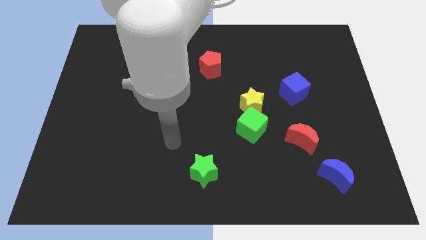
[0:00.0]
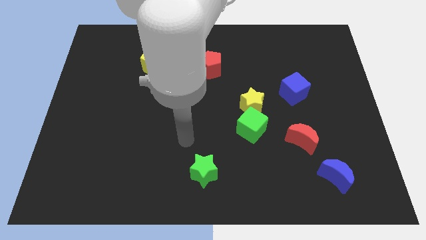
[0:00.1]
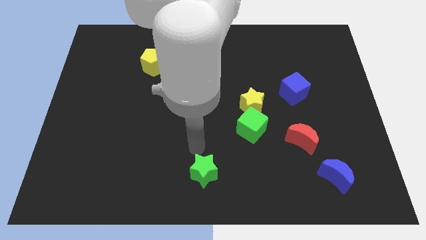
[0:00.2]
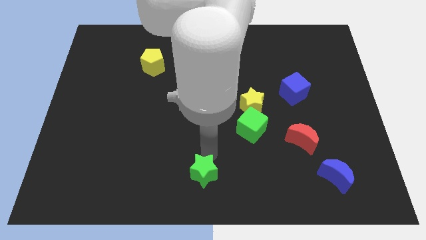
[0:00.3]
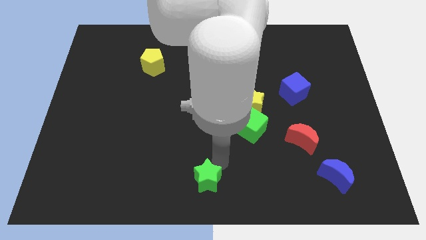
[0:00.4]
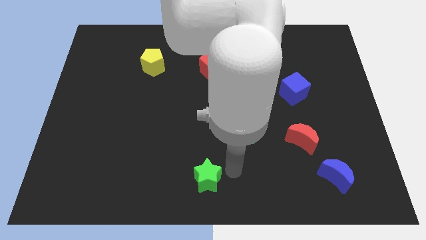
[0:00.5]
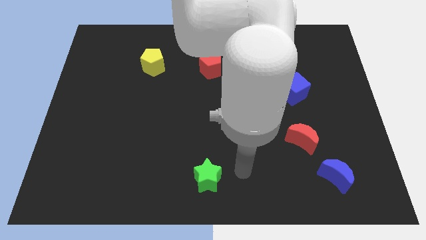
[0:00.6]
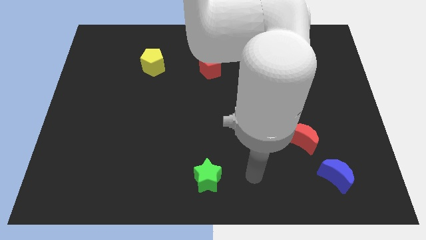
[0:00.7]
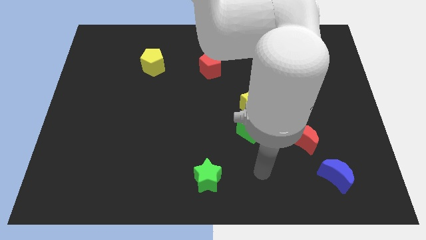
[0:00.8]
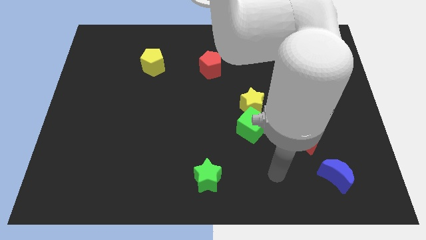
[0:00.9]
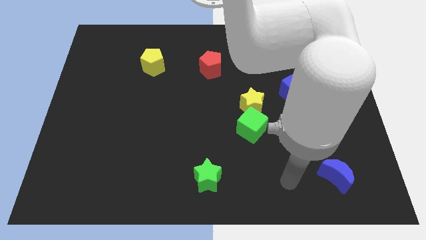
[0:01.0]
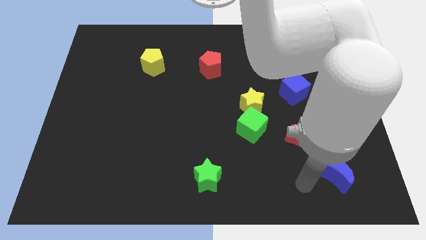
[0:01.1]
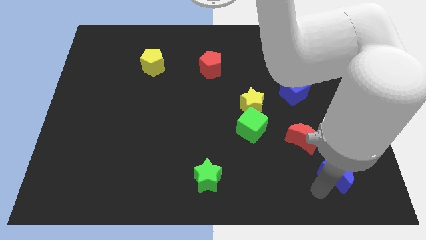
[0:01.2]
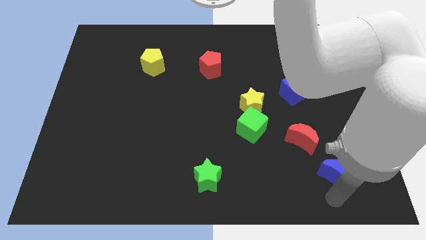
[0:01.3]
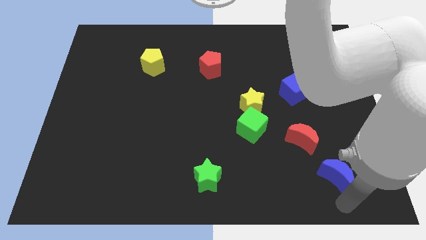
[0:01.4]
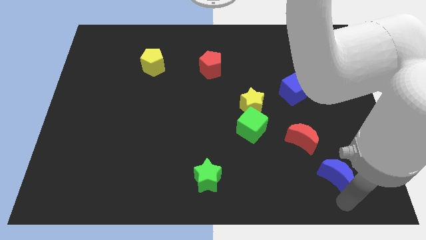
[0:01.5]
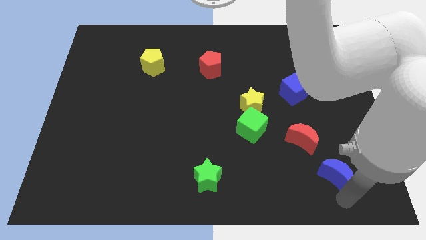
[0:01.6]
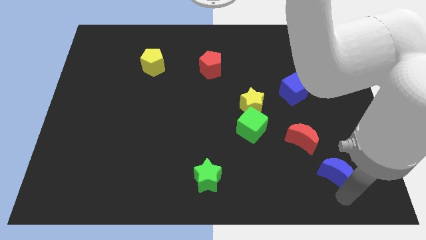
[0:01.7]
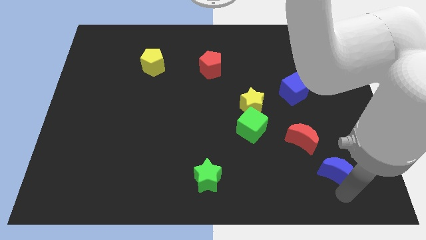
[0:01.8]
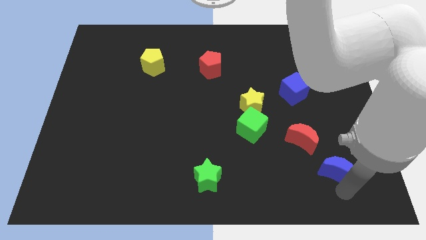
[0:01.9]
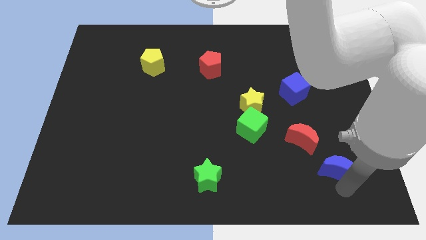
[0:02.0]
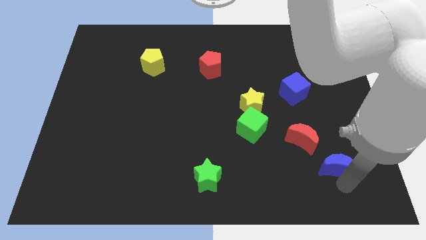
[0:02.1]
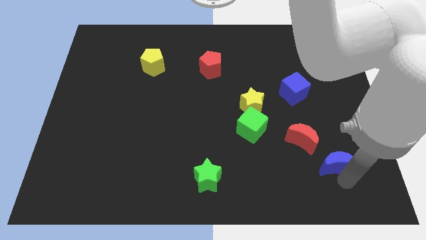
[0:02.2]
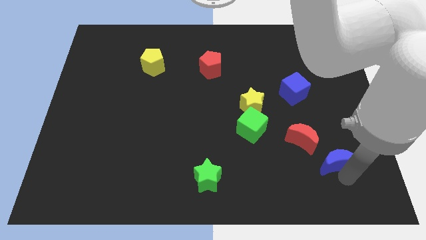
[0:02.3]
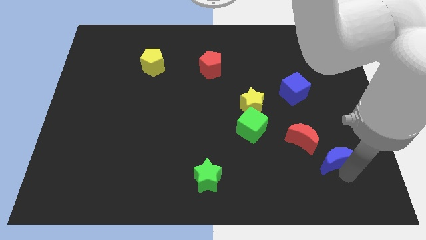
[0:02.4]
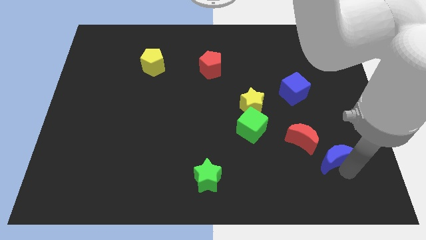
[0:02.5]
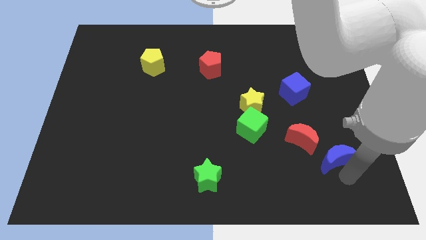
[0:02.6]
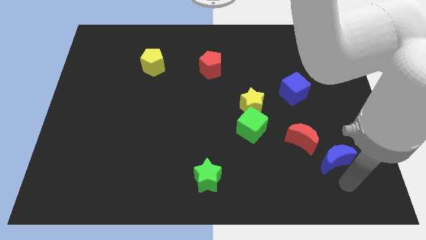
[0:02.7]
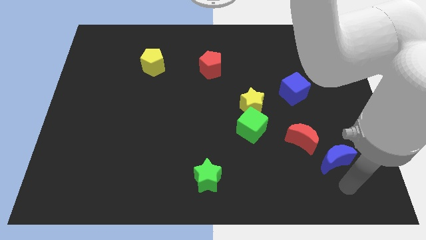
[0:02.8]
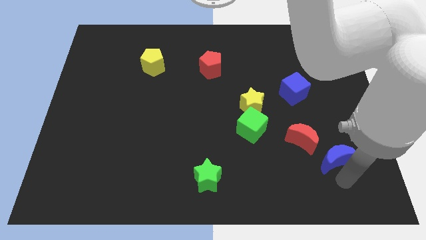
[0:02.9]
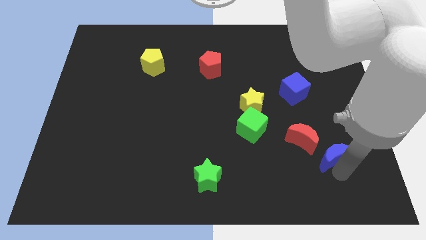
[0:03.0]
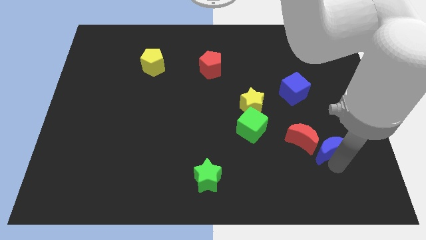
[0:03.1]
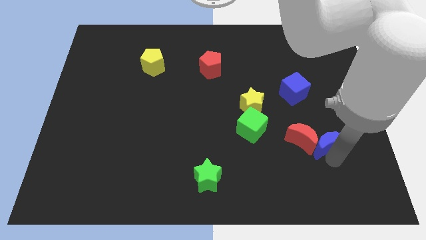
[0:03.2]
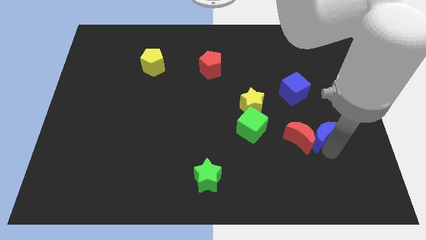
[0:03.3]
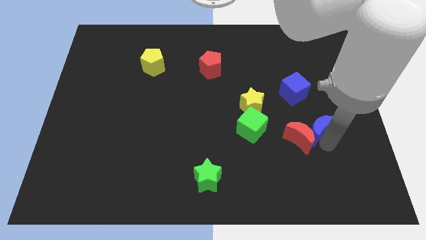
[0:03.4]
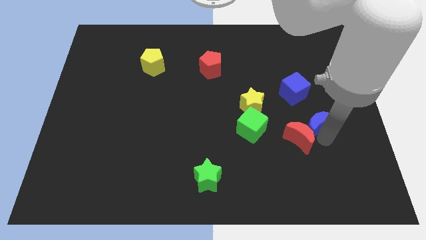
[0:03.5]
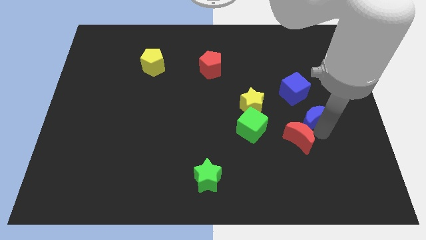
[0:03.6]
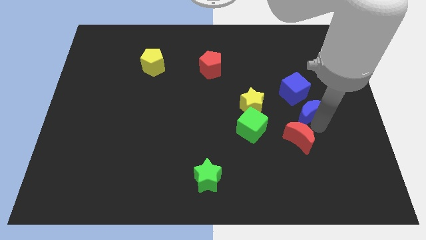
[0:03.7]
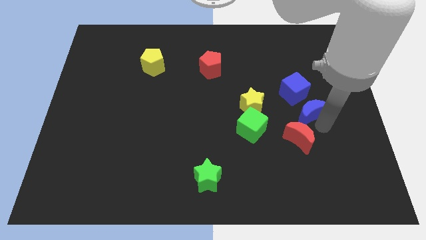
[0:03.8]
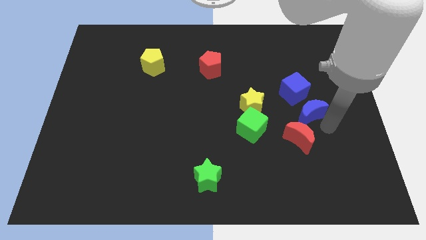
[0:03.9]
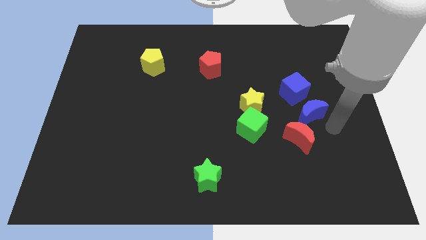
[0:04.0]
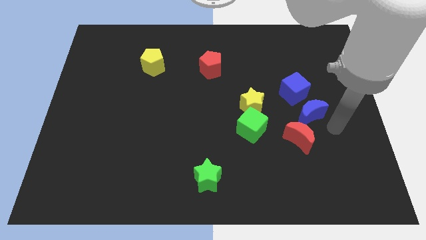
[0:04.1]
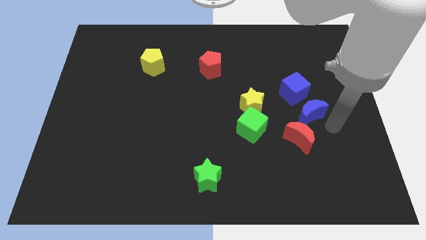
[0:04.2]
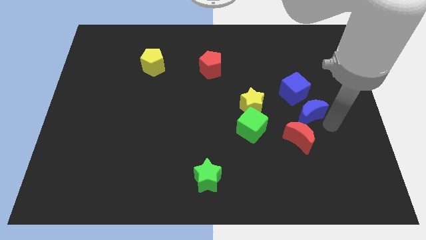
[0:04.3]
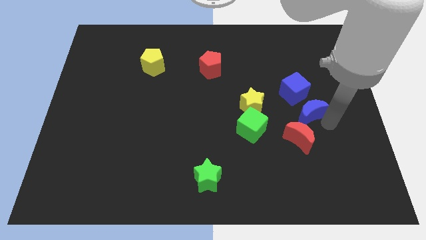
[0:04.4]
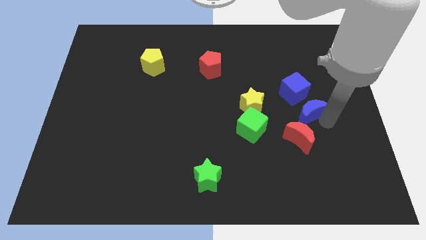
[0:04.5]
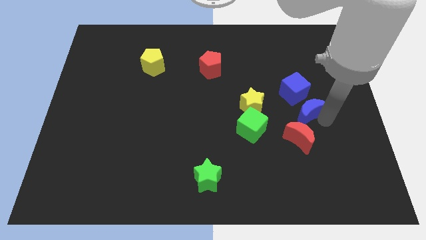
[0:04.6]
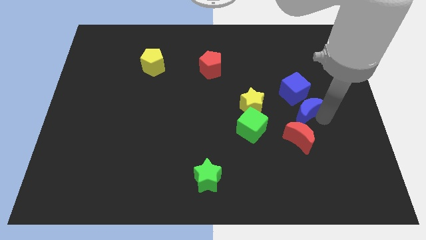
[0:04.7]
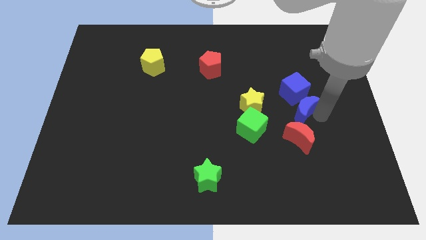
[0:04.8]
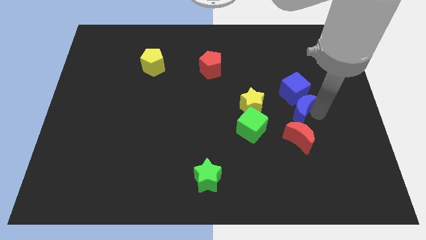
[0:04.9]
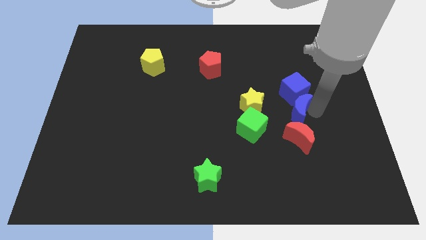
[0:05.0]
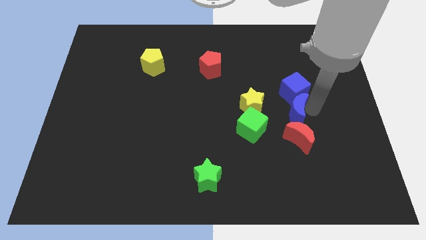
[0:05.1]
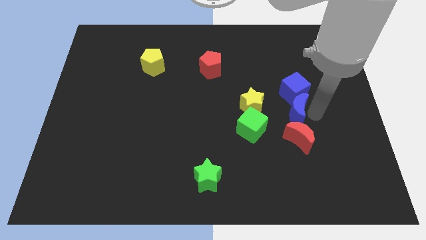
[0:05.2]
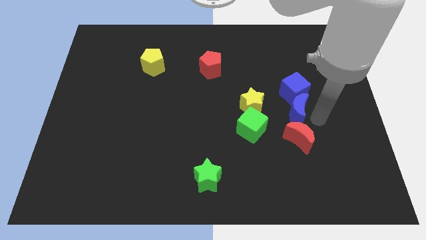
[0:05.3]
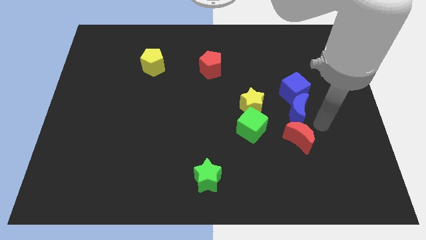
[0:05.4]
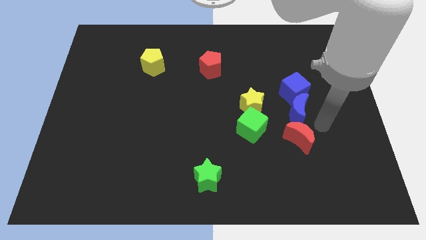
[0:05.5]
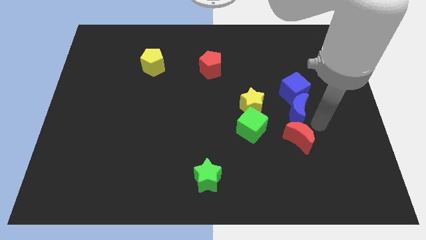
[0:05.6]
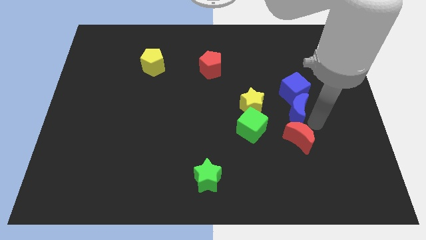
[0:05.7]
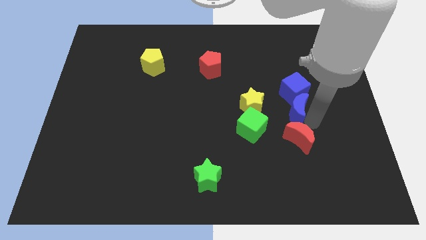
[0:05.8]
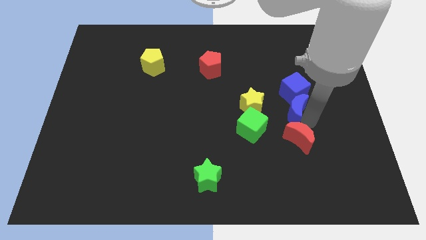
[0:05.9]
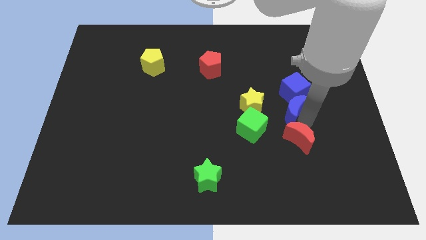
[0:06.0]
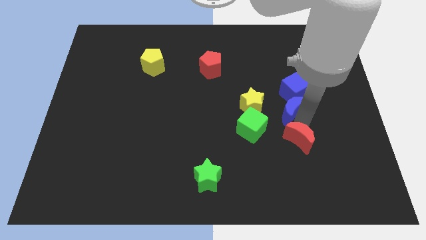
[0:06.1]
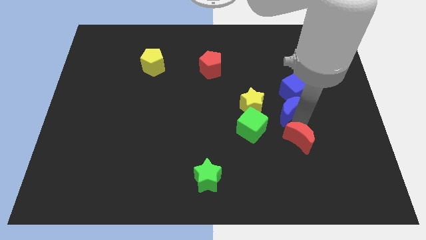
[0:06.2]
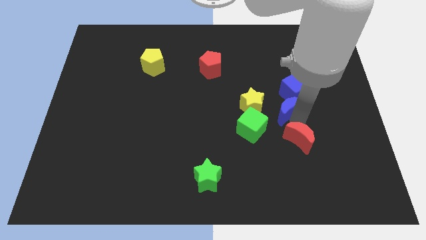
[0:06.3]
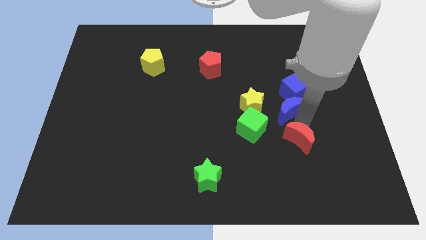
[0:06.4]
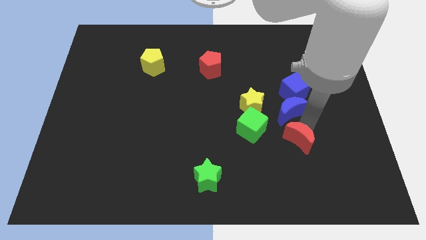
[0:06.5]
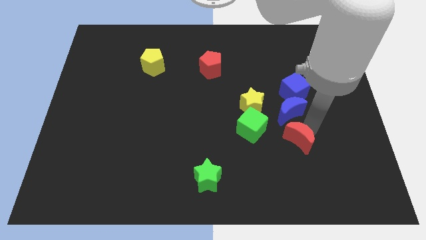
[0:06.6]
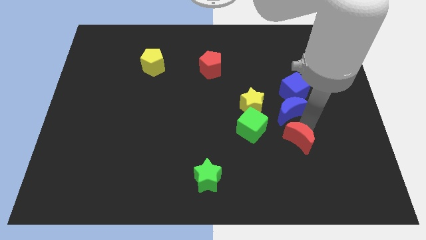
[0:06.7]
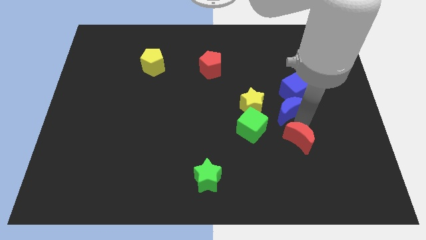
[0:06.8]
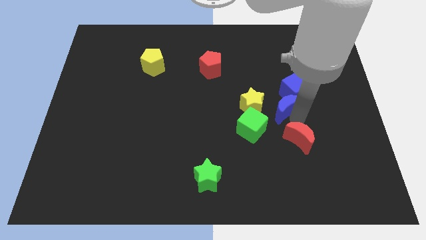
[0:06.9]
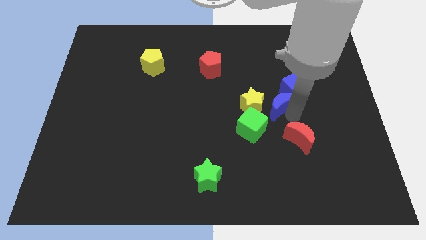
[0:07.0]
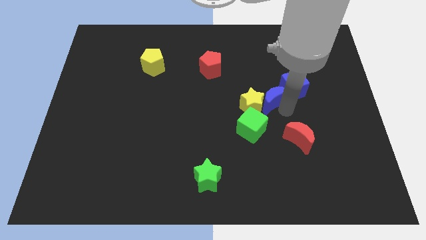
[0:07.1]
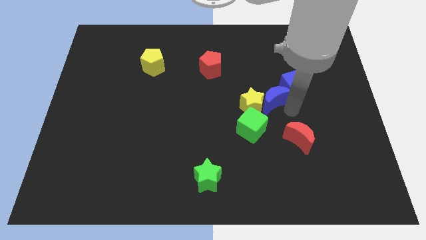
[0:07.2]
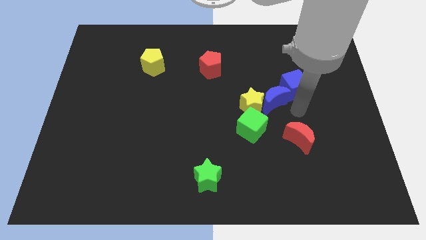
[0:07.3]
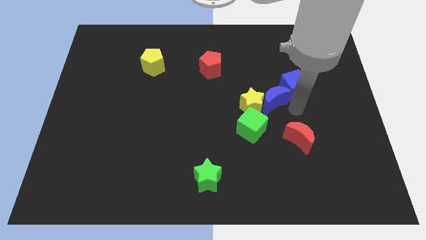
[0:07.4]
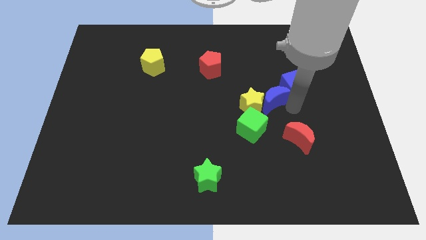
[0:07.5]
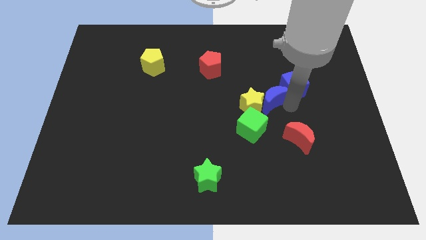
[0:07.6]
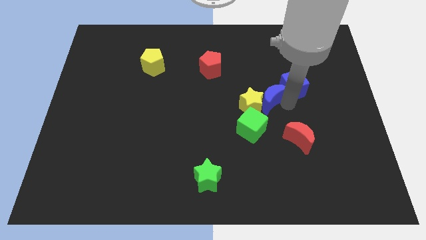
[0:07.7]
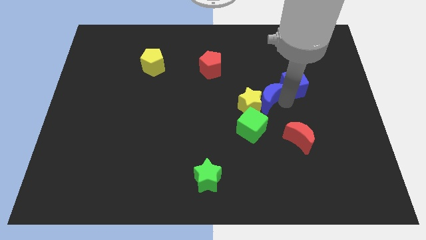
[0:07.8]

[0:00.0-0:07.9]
move the blue moon to the top of the green cube
